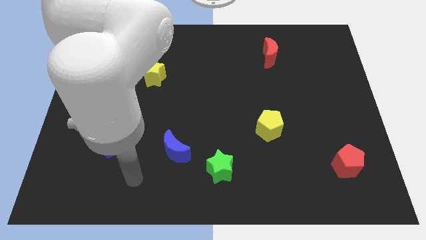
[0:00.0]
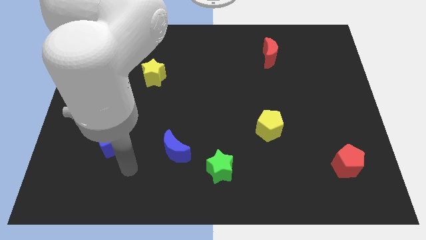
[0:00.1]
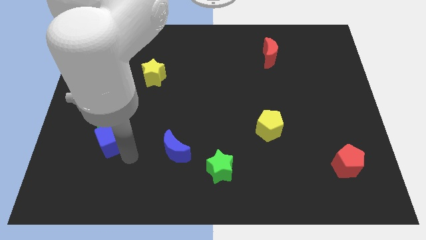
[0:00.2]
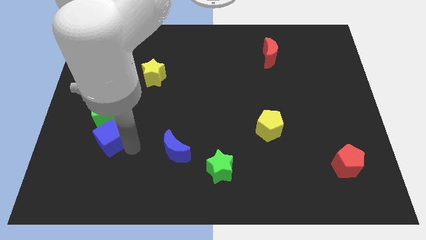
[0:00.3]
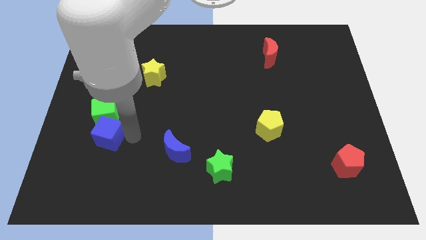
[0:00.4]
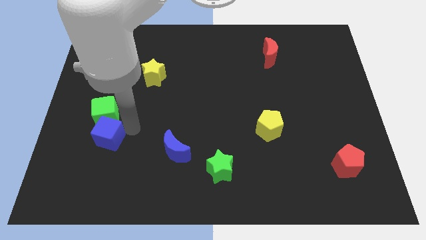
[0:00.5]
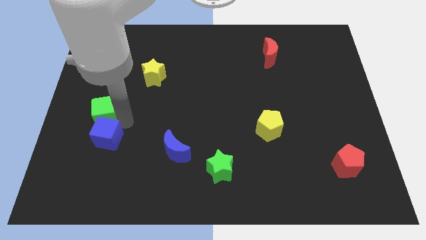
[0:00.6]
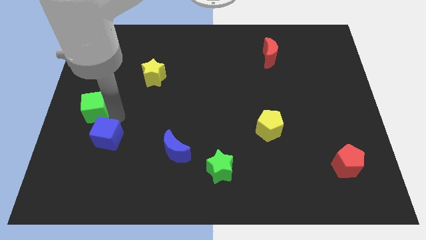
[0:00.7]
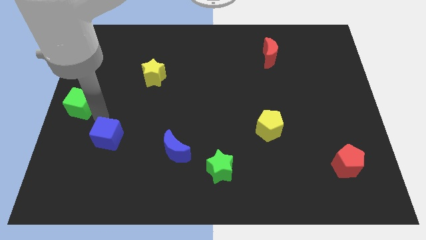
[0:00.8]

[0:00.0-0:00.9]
separate the blue cube from the green cube

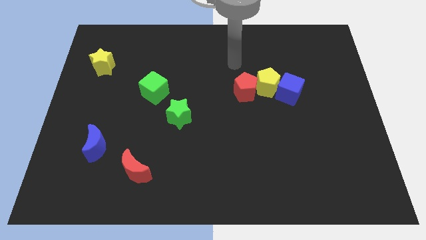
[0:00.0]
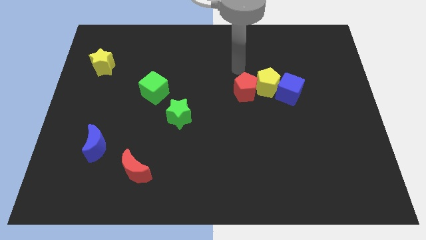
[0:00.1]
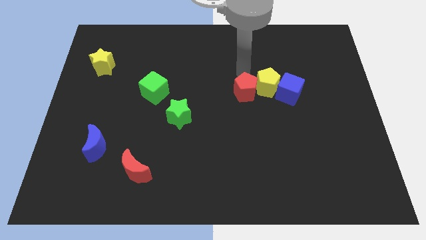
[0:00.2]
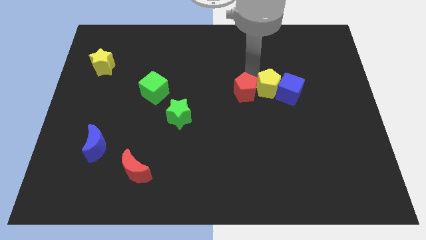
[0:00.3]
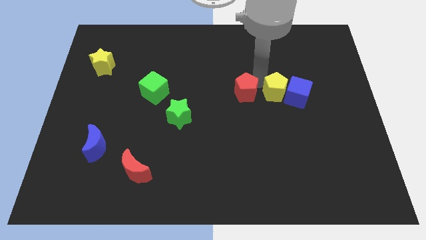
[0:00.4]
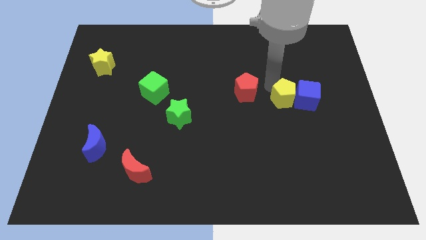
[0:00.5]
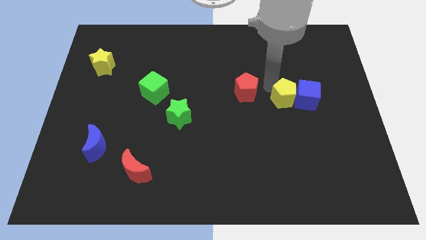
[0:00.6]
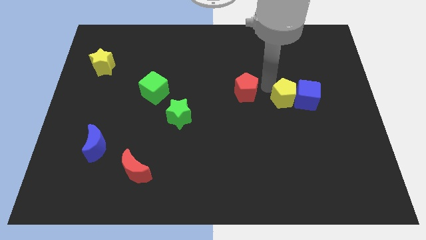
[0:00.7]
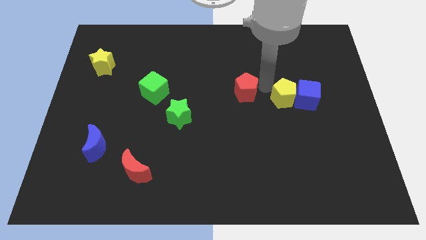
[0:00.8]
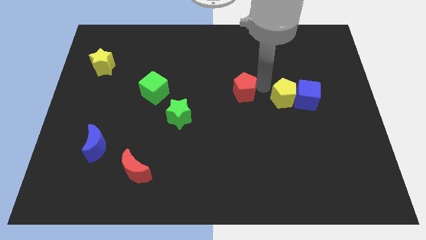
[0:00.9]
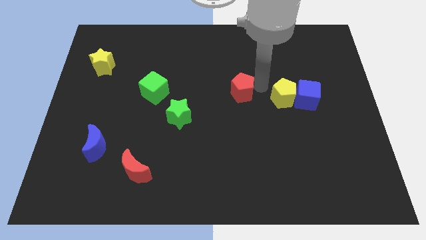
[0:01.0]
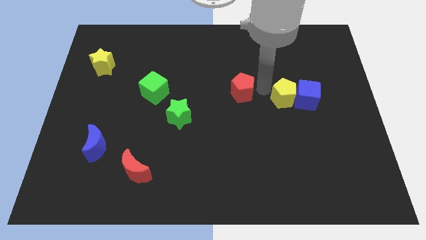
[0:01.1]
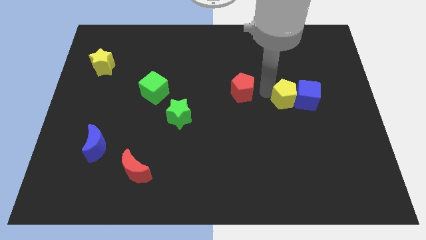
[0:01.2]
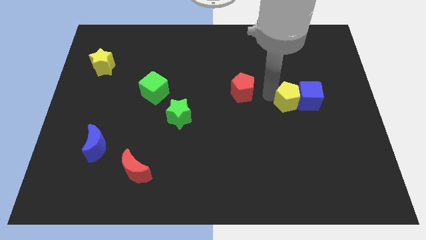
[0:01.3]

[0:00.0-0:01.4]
pull the red pentagon apart from the yellow pentagon

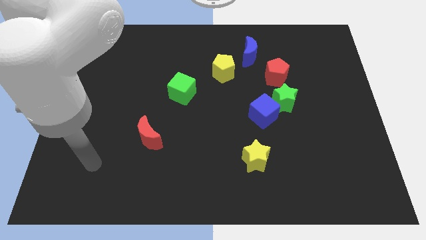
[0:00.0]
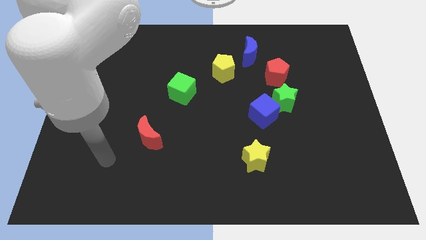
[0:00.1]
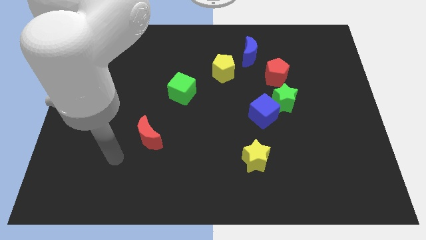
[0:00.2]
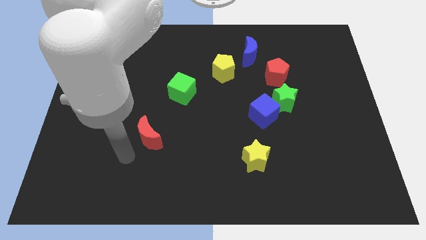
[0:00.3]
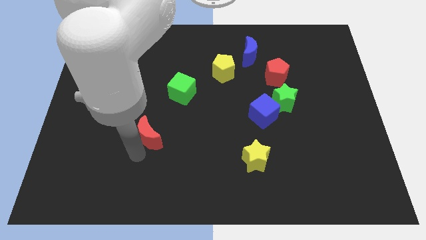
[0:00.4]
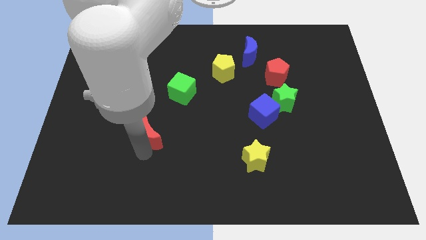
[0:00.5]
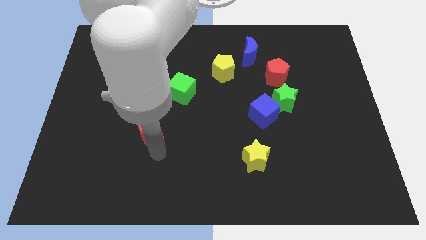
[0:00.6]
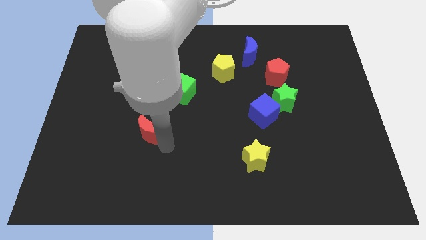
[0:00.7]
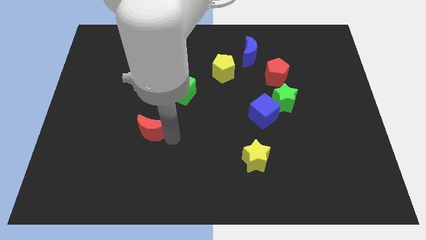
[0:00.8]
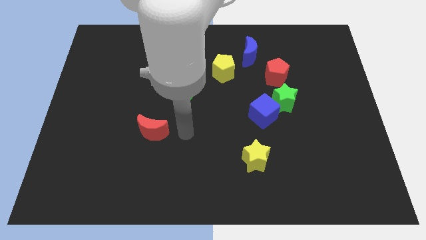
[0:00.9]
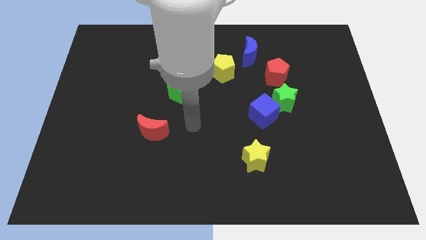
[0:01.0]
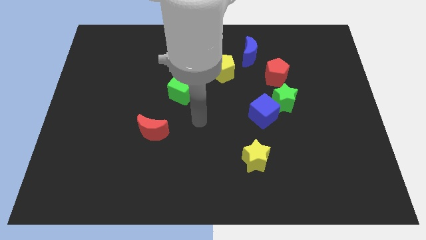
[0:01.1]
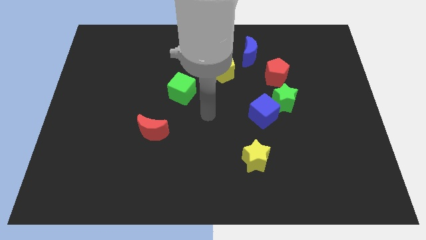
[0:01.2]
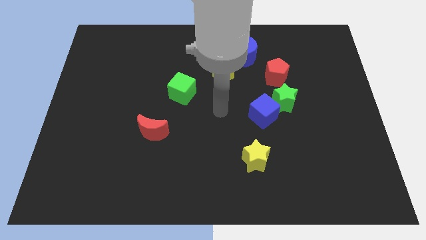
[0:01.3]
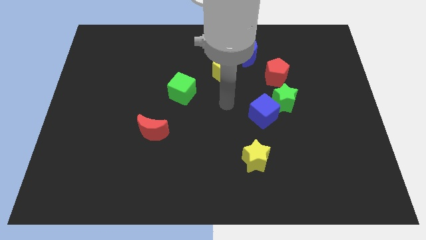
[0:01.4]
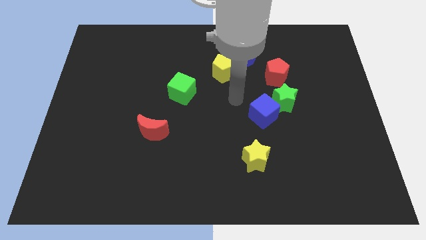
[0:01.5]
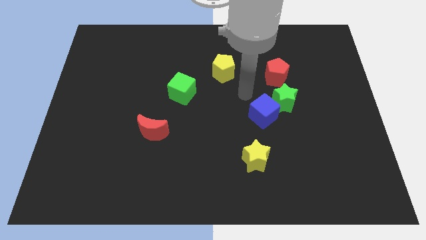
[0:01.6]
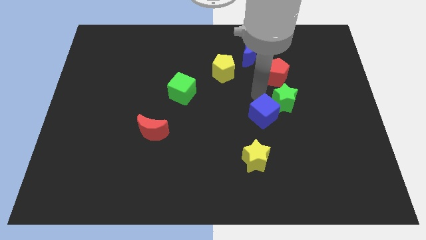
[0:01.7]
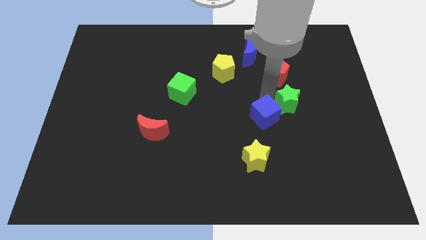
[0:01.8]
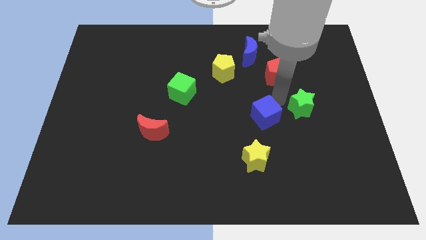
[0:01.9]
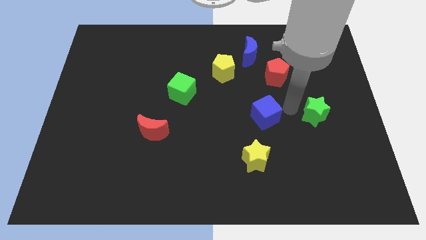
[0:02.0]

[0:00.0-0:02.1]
move the blue cube away from the green star

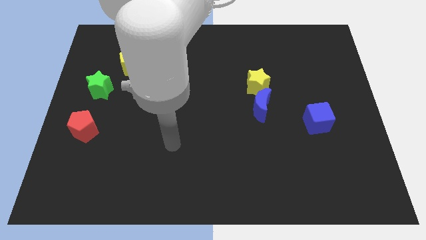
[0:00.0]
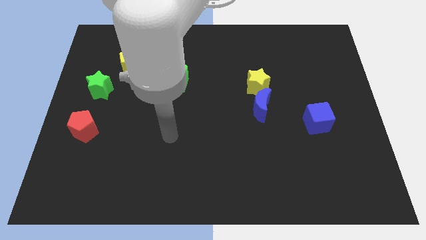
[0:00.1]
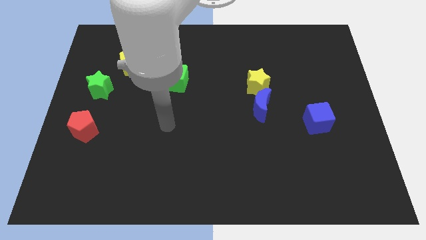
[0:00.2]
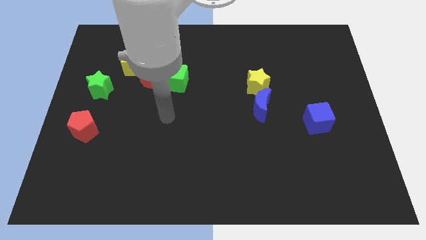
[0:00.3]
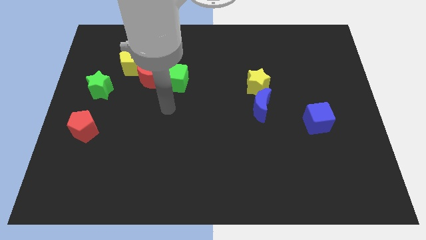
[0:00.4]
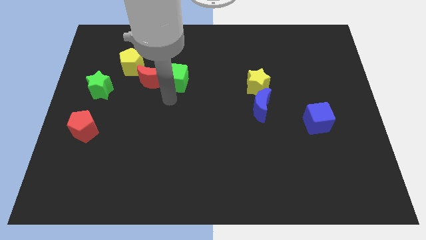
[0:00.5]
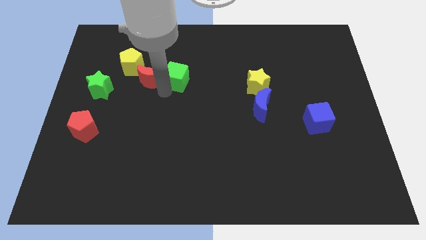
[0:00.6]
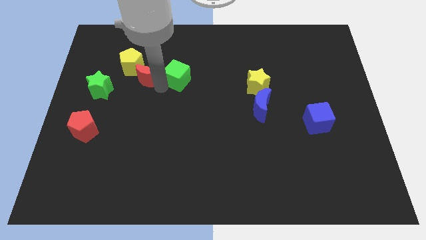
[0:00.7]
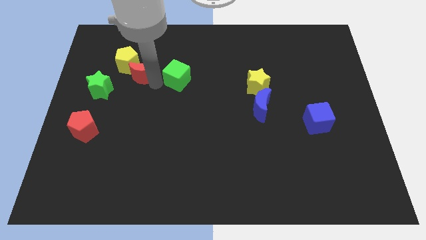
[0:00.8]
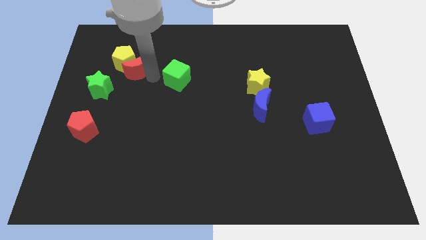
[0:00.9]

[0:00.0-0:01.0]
move the green cube away from the red moon

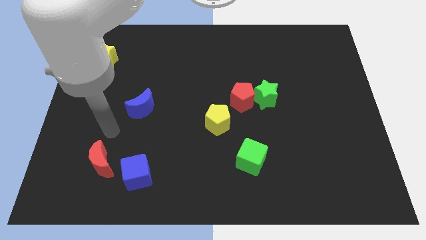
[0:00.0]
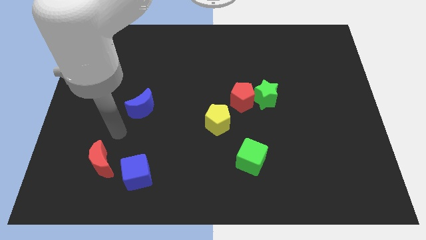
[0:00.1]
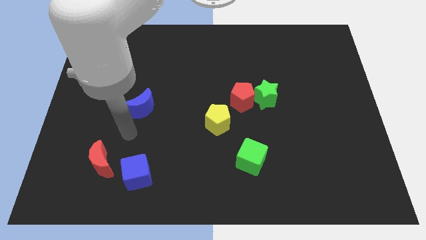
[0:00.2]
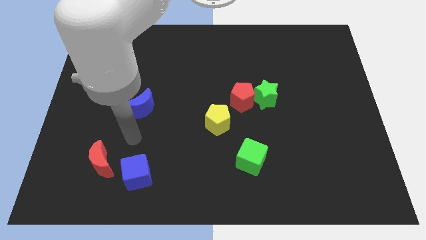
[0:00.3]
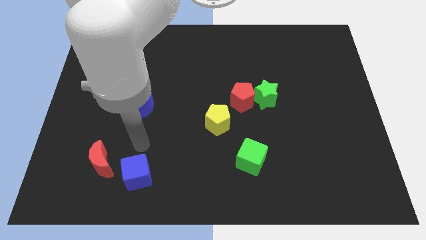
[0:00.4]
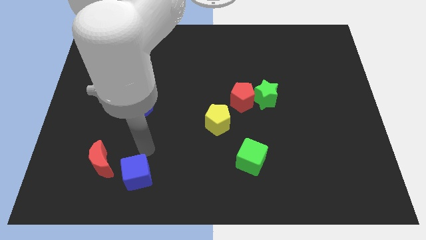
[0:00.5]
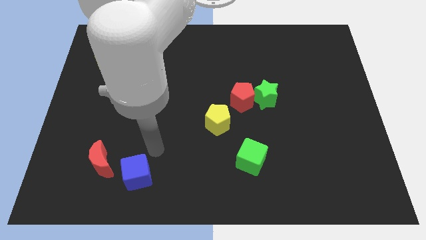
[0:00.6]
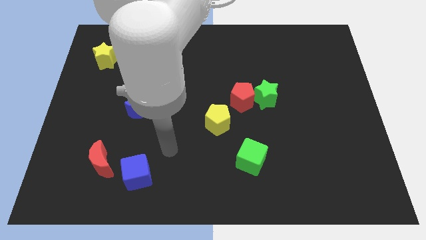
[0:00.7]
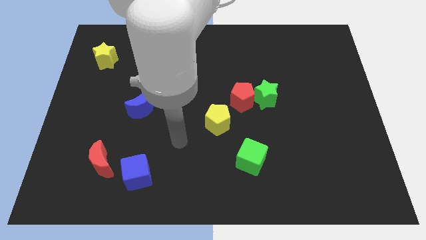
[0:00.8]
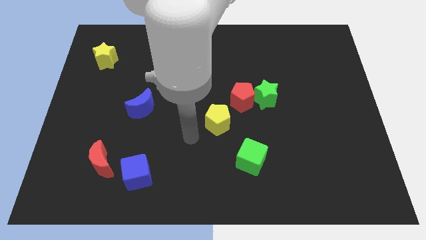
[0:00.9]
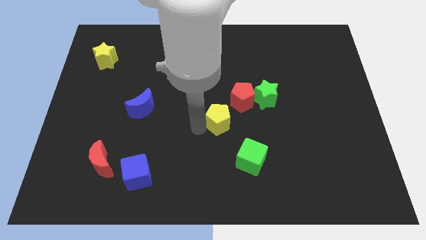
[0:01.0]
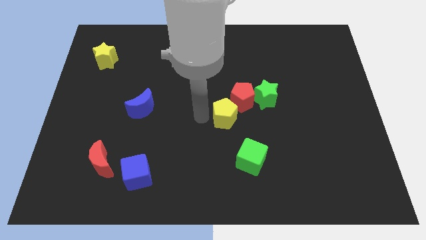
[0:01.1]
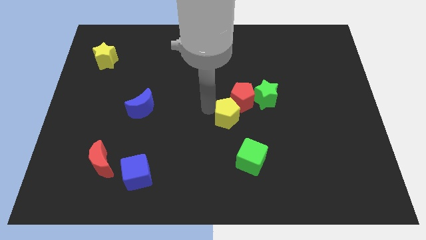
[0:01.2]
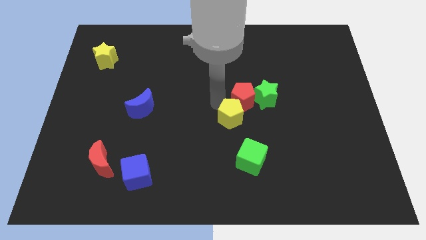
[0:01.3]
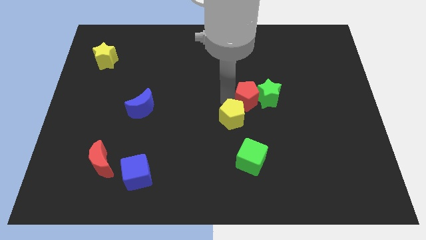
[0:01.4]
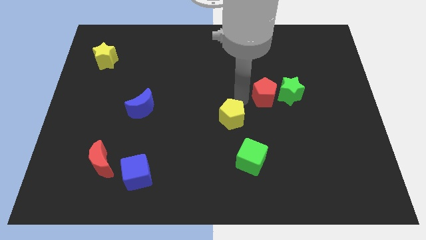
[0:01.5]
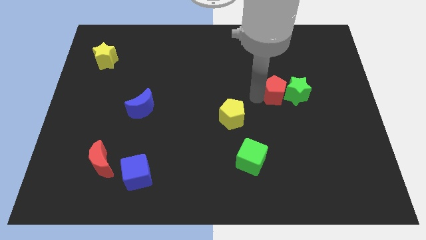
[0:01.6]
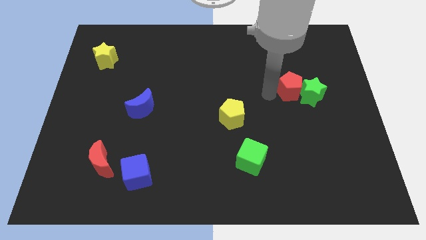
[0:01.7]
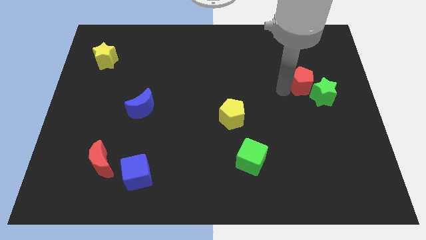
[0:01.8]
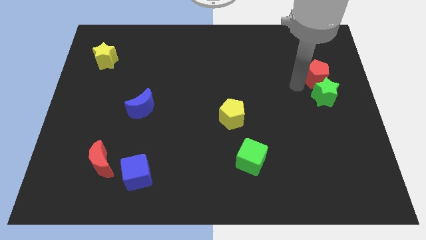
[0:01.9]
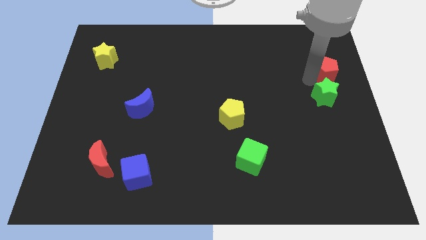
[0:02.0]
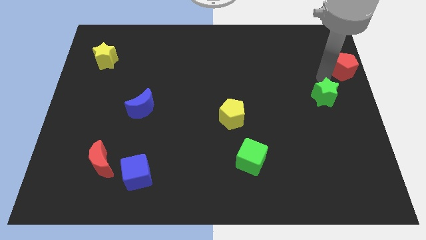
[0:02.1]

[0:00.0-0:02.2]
pull the green star apart from the red pentagon

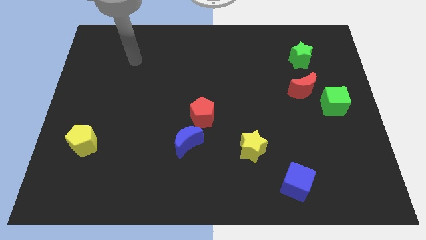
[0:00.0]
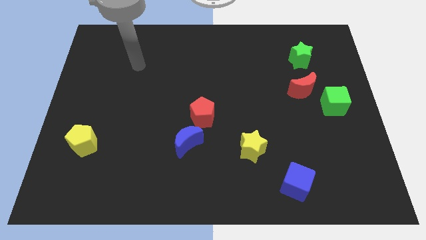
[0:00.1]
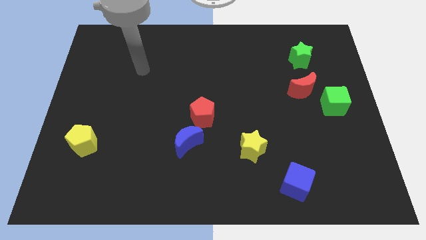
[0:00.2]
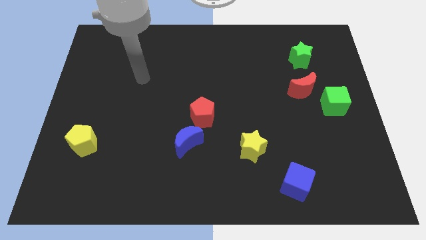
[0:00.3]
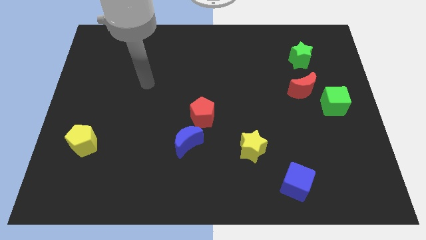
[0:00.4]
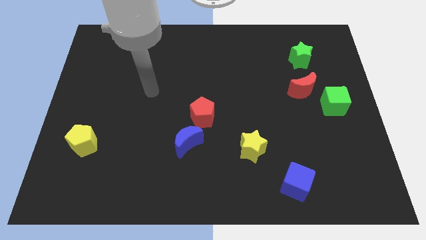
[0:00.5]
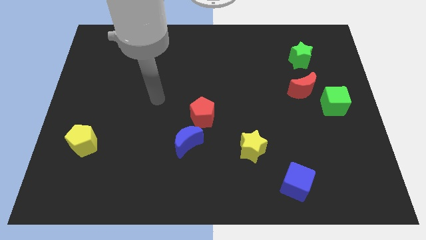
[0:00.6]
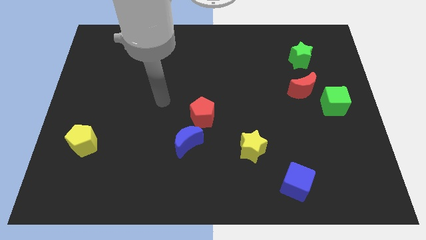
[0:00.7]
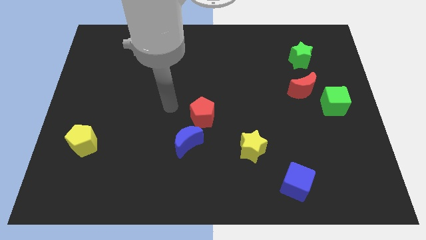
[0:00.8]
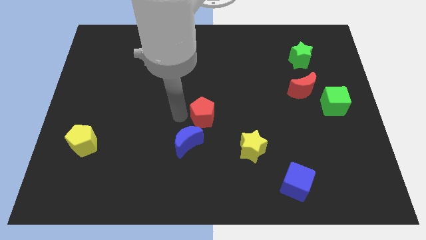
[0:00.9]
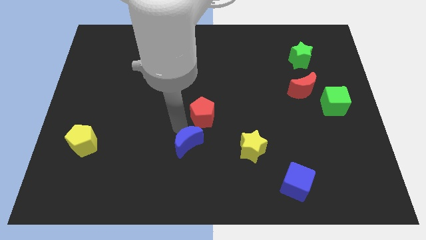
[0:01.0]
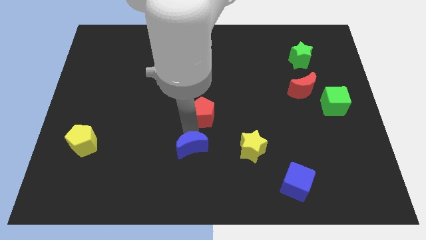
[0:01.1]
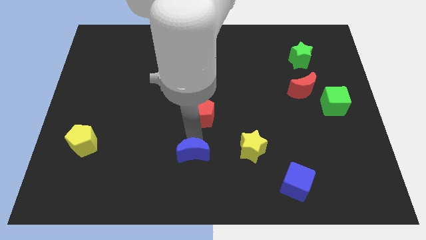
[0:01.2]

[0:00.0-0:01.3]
pull the red pentagon apart from the blue moon

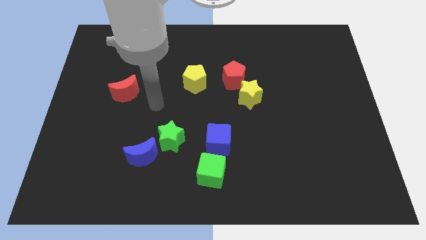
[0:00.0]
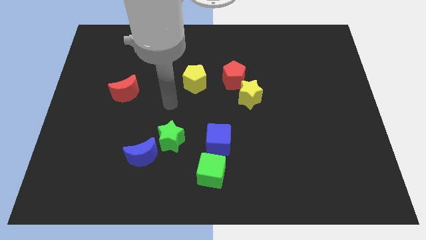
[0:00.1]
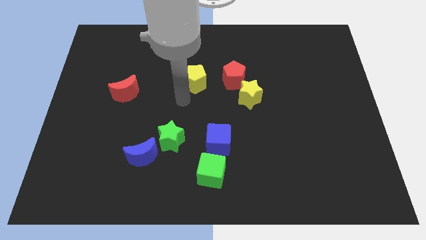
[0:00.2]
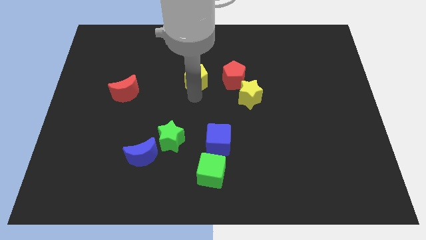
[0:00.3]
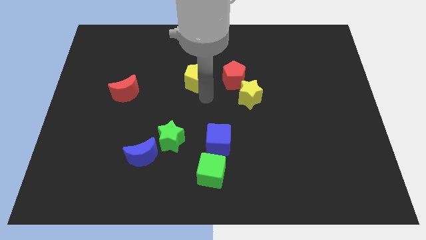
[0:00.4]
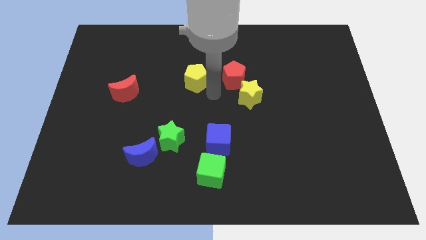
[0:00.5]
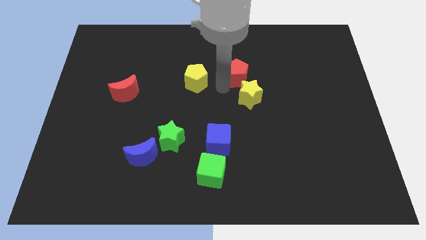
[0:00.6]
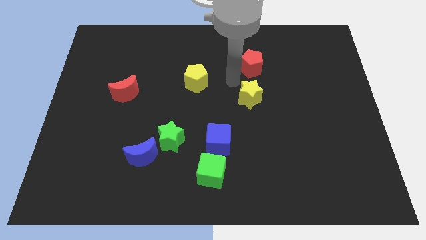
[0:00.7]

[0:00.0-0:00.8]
move the yellow star away from the red pentagon
